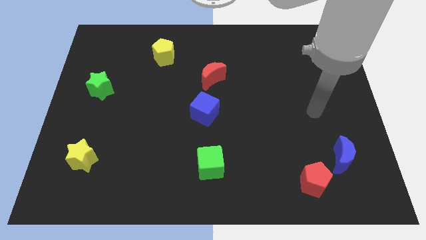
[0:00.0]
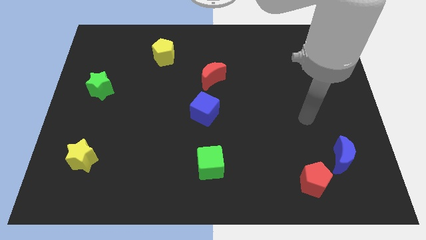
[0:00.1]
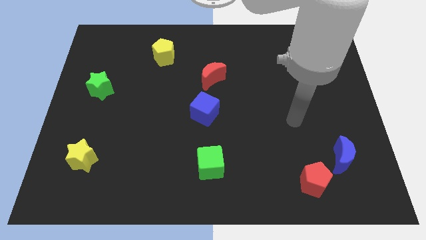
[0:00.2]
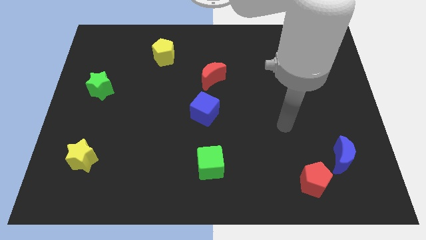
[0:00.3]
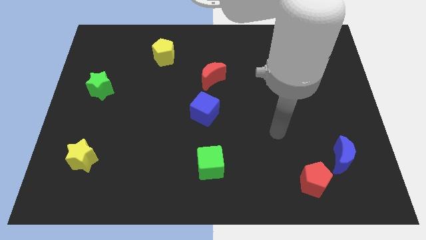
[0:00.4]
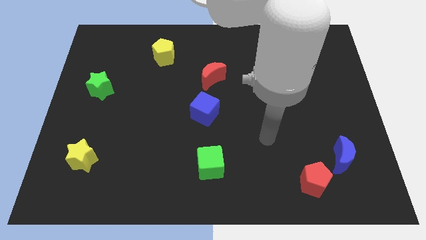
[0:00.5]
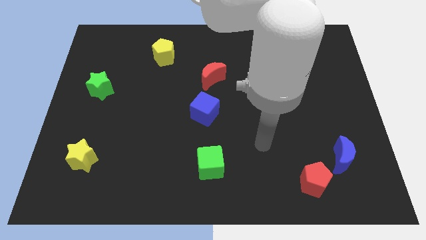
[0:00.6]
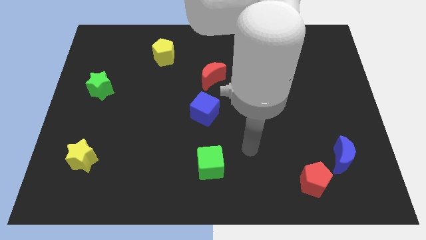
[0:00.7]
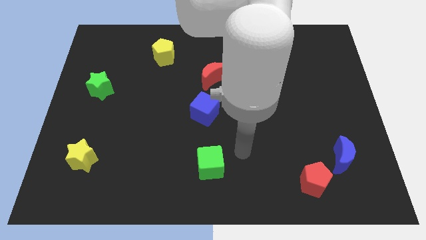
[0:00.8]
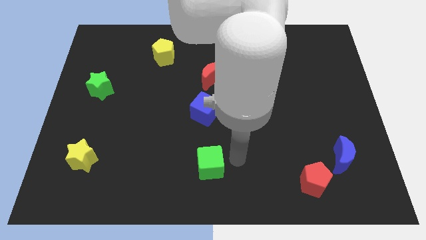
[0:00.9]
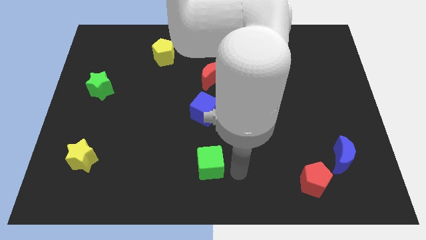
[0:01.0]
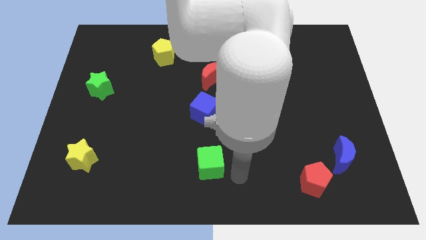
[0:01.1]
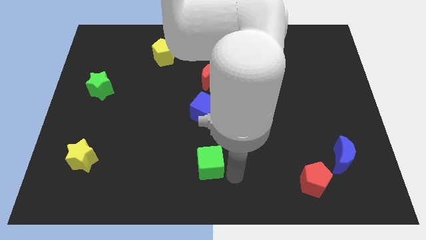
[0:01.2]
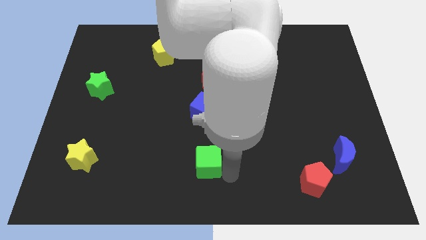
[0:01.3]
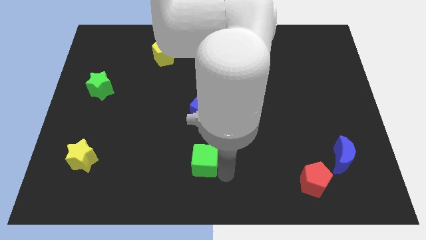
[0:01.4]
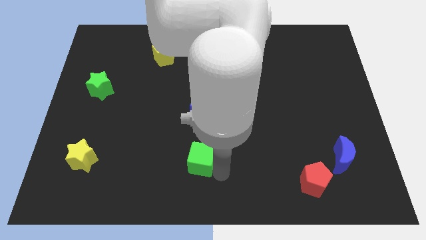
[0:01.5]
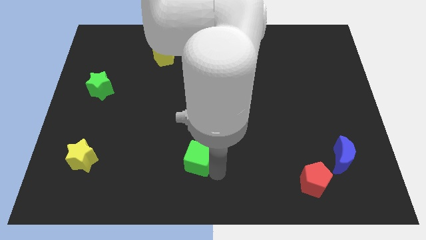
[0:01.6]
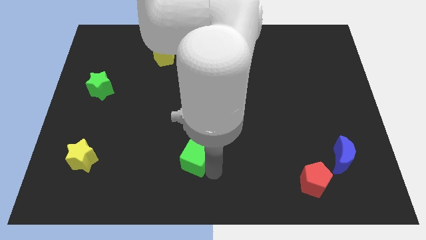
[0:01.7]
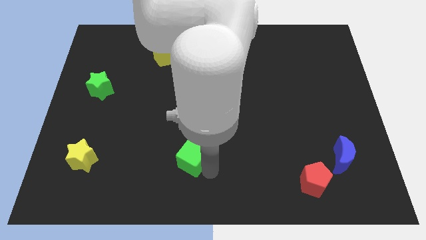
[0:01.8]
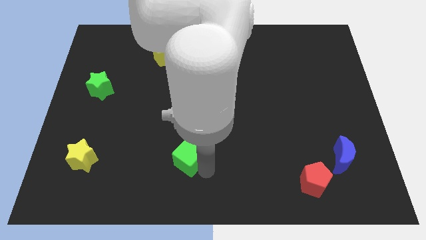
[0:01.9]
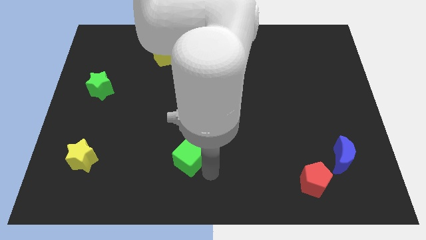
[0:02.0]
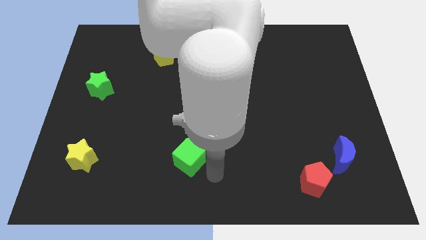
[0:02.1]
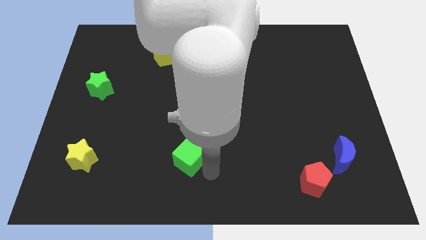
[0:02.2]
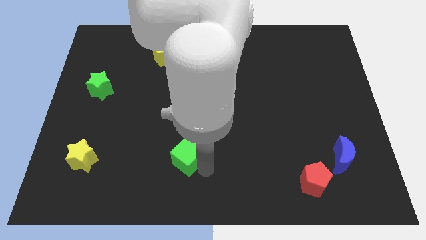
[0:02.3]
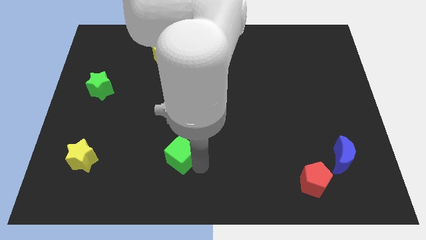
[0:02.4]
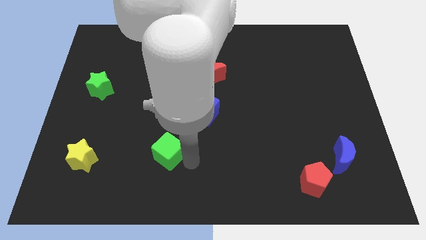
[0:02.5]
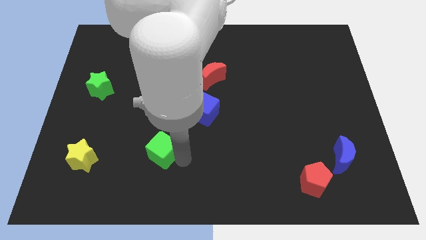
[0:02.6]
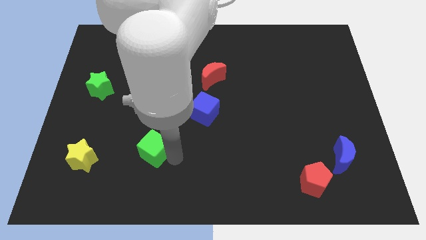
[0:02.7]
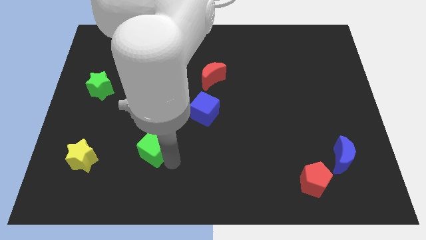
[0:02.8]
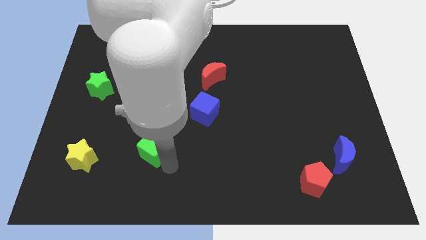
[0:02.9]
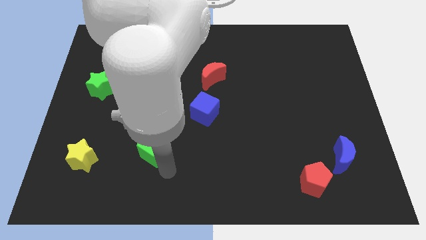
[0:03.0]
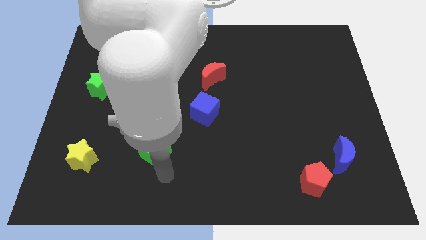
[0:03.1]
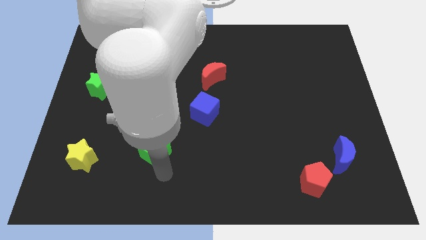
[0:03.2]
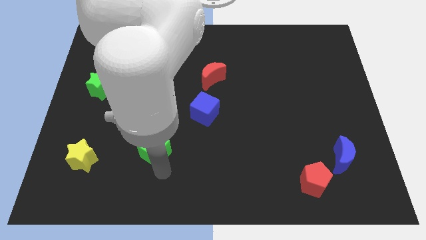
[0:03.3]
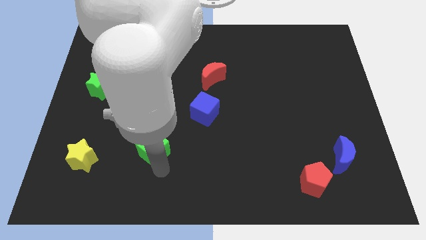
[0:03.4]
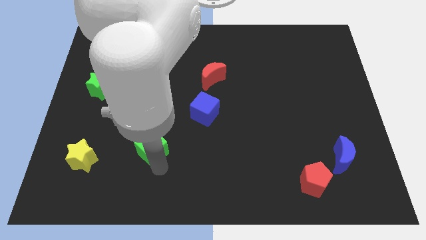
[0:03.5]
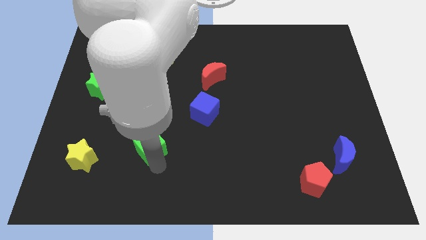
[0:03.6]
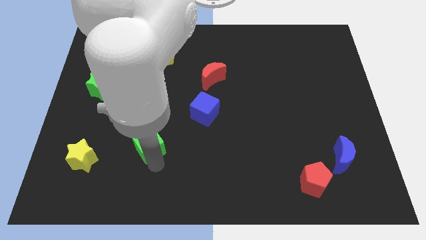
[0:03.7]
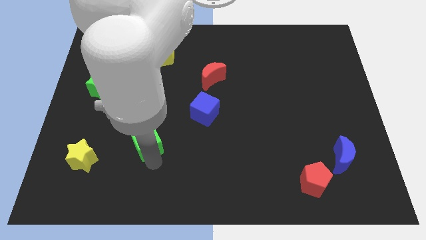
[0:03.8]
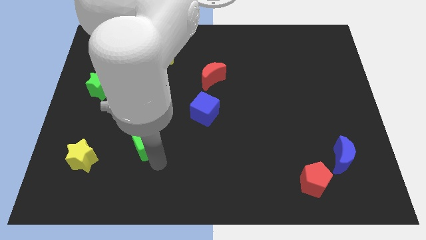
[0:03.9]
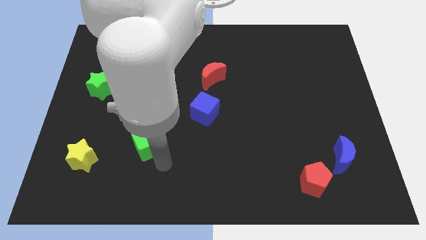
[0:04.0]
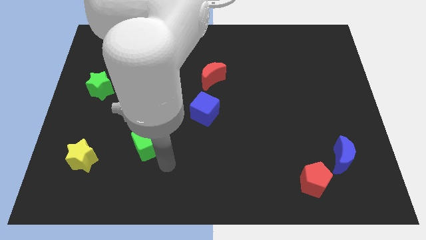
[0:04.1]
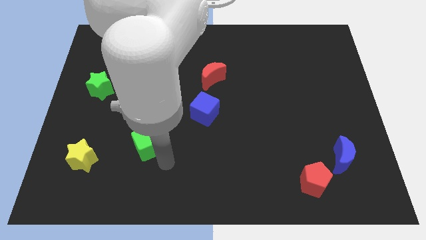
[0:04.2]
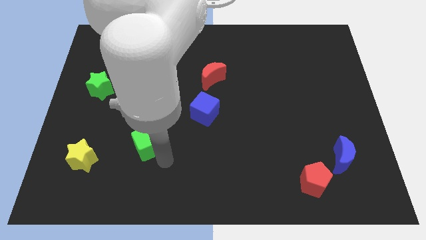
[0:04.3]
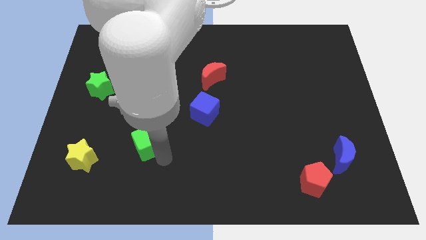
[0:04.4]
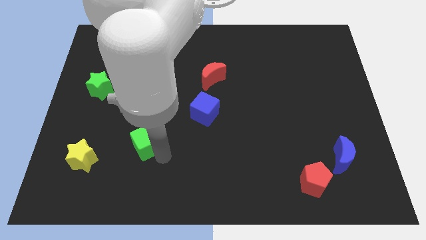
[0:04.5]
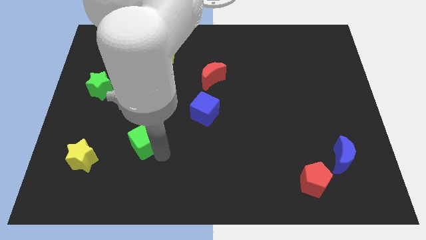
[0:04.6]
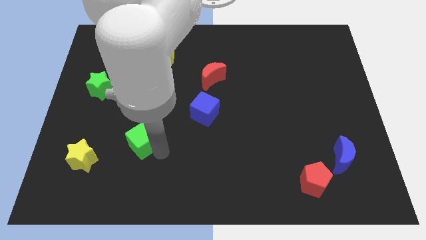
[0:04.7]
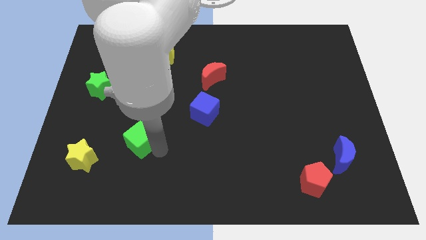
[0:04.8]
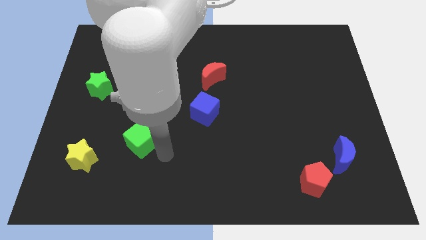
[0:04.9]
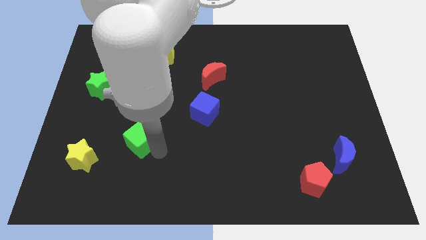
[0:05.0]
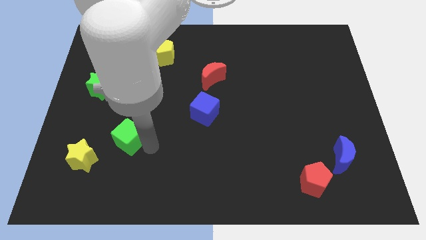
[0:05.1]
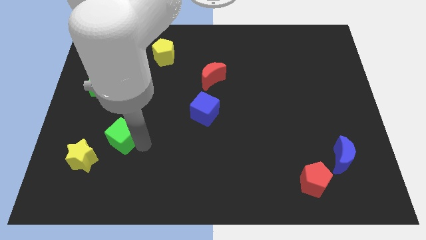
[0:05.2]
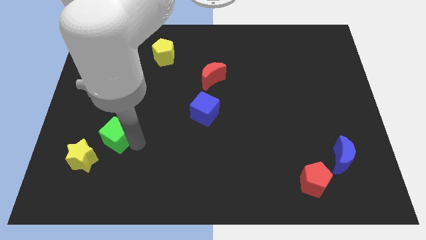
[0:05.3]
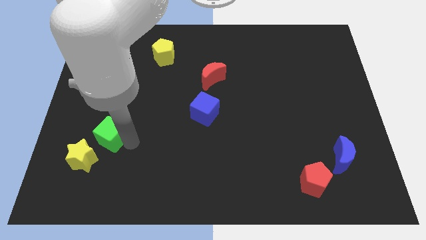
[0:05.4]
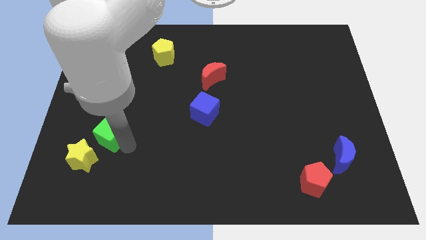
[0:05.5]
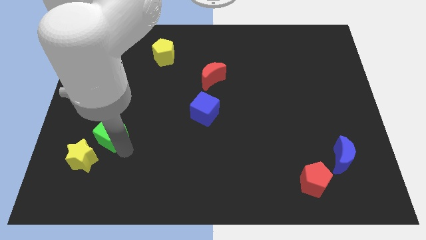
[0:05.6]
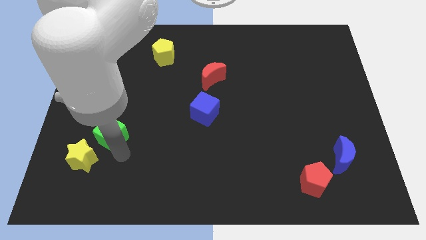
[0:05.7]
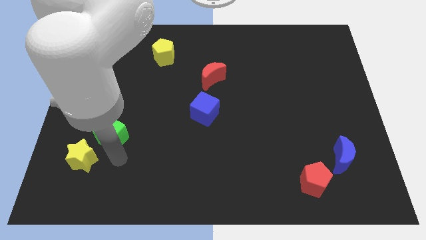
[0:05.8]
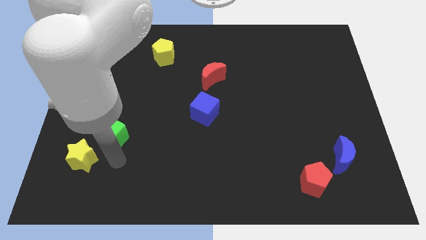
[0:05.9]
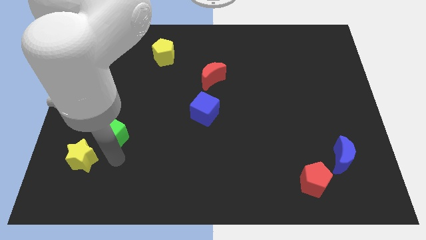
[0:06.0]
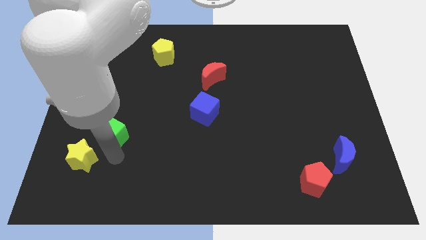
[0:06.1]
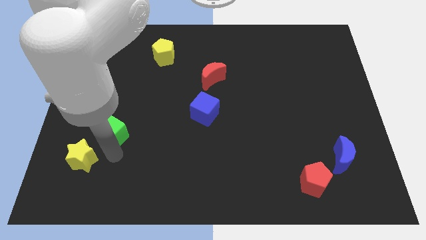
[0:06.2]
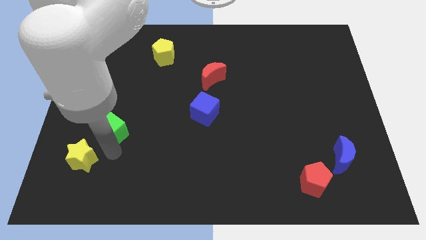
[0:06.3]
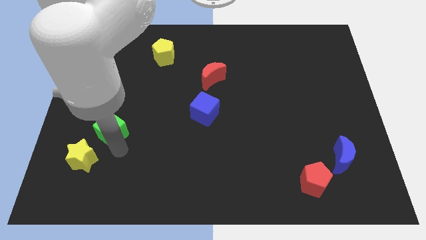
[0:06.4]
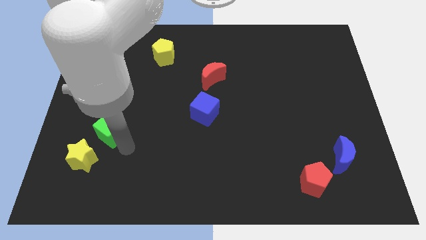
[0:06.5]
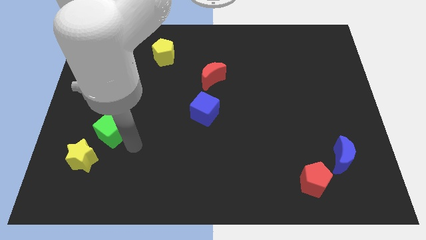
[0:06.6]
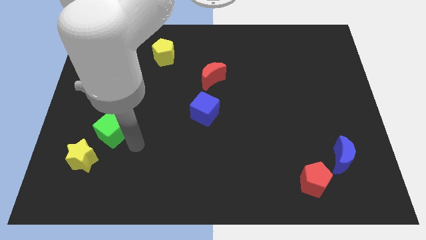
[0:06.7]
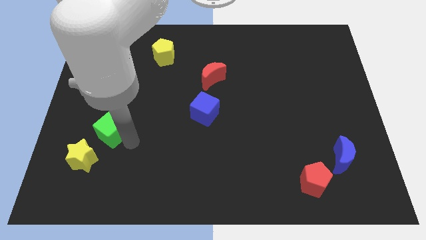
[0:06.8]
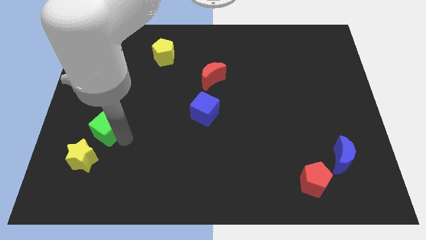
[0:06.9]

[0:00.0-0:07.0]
push the green cube to the bottom of the green star

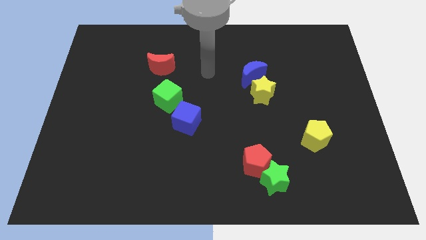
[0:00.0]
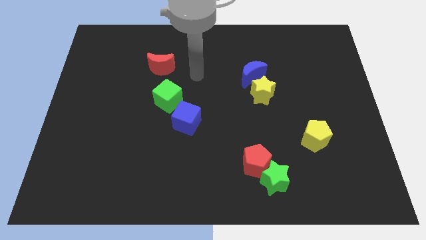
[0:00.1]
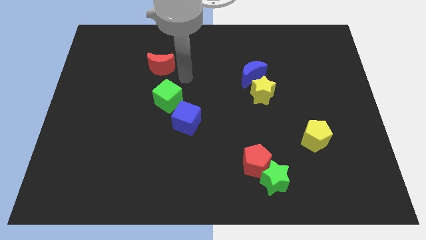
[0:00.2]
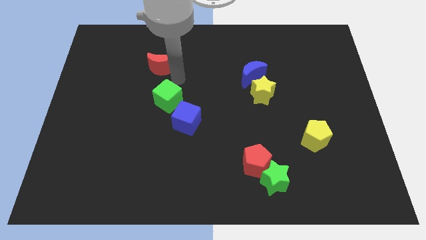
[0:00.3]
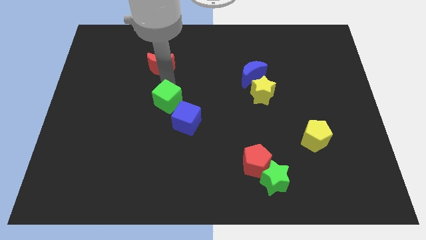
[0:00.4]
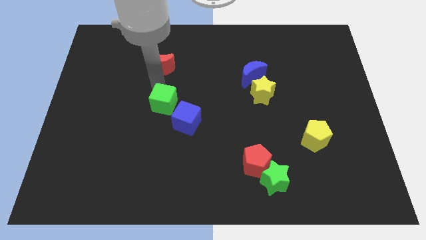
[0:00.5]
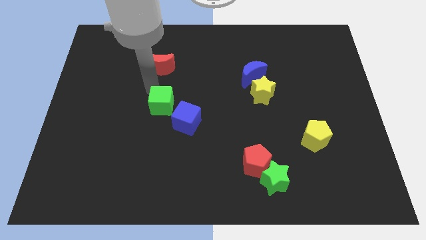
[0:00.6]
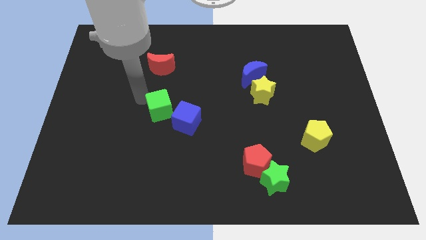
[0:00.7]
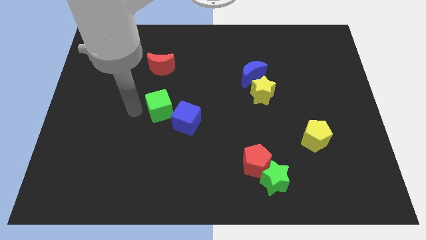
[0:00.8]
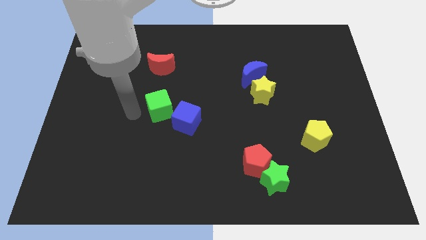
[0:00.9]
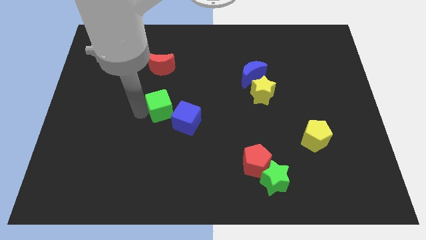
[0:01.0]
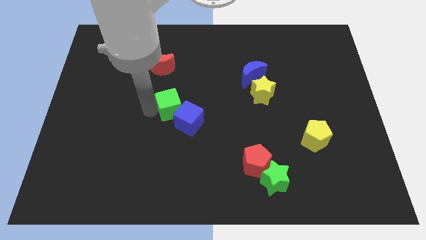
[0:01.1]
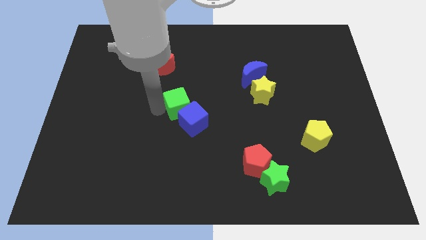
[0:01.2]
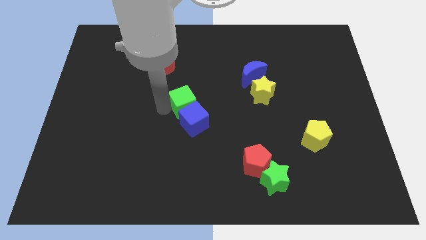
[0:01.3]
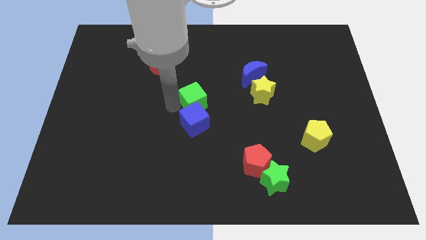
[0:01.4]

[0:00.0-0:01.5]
move the green cube to the top right of the blue cube
